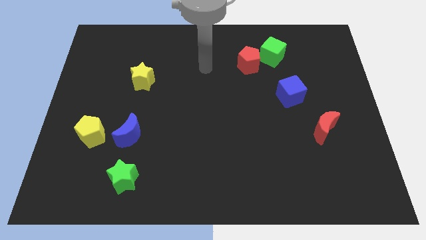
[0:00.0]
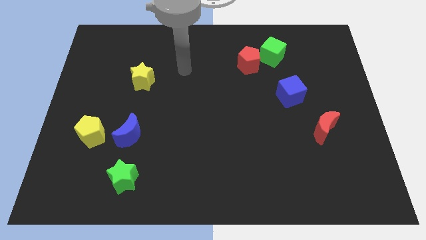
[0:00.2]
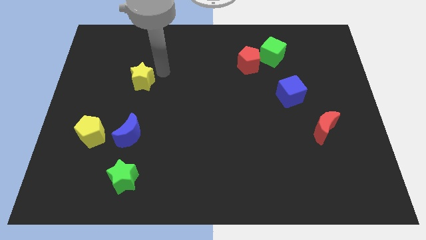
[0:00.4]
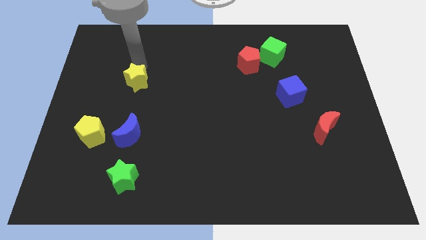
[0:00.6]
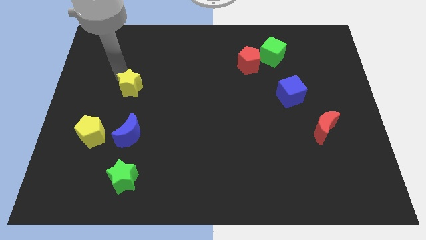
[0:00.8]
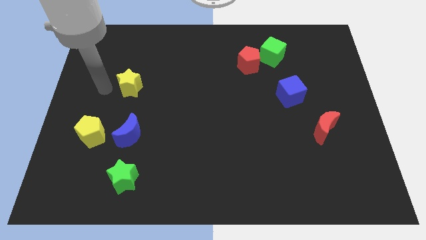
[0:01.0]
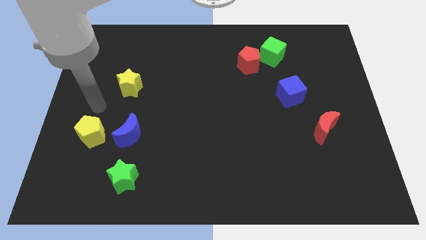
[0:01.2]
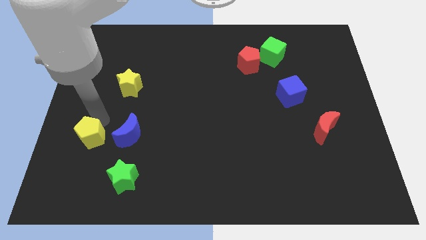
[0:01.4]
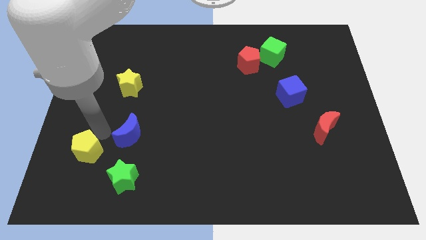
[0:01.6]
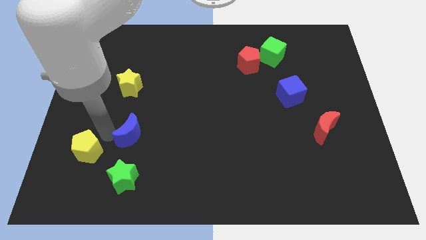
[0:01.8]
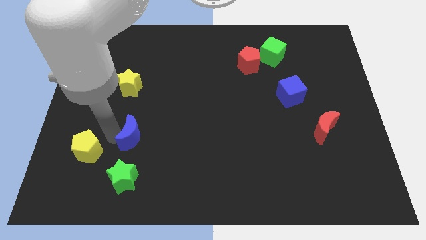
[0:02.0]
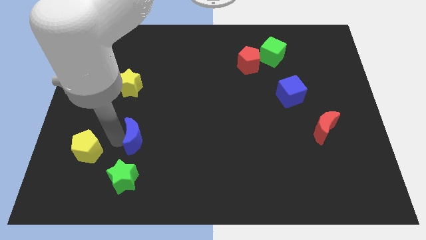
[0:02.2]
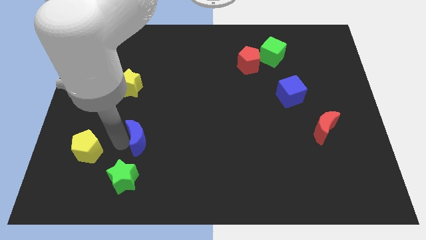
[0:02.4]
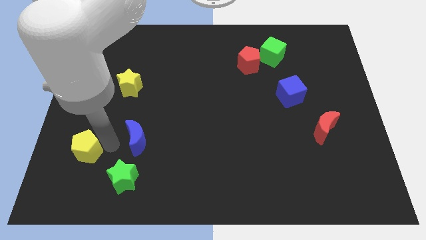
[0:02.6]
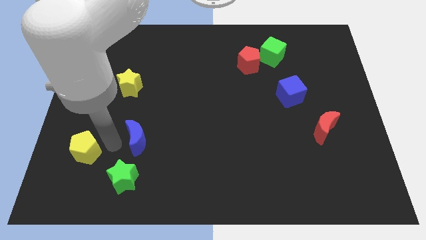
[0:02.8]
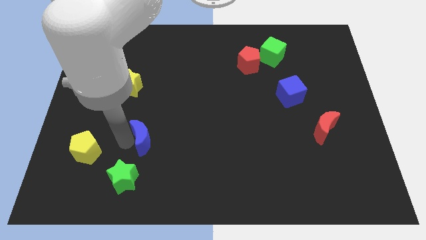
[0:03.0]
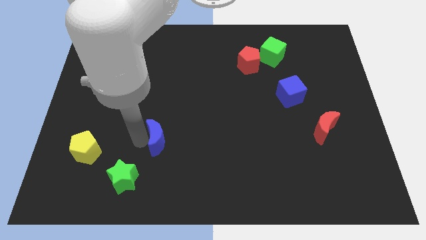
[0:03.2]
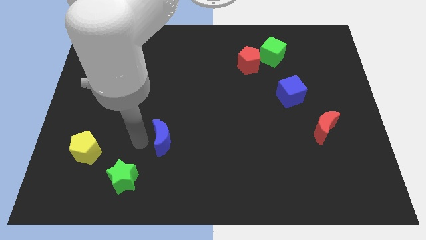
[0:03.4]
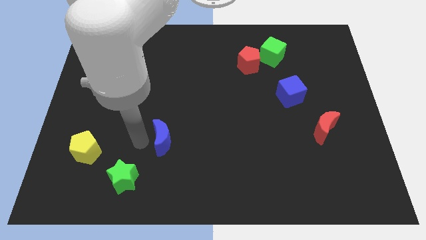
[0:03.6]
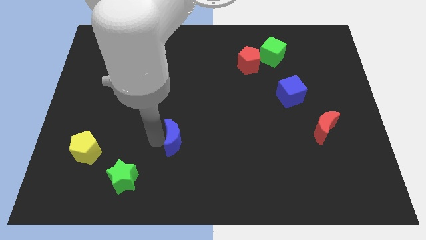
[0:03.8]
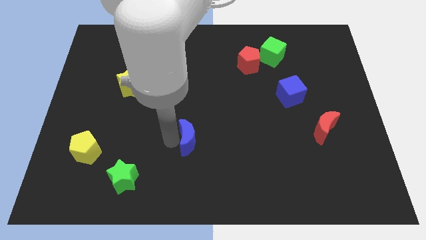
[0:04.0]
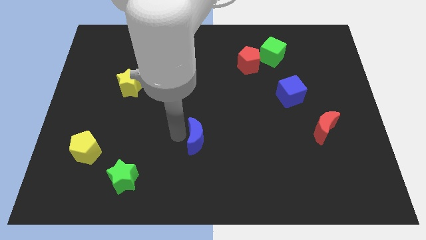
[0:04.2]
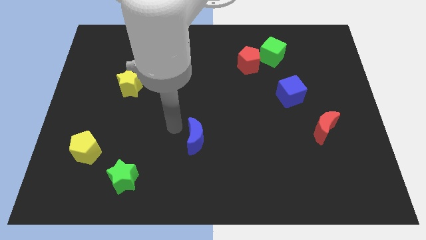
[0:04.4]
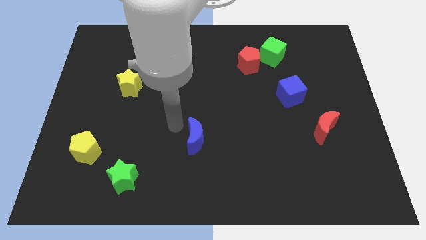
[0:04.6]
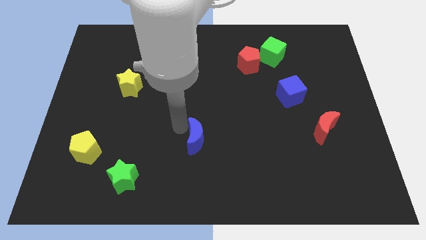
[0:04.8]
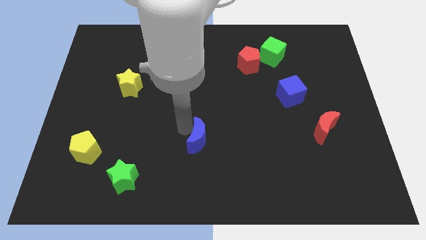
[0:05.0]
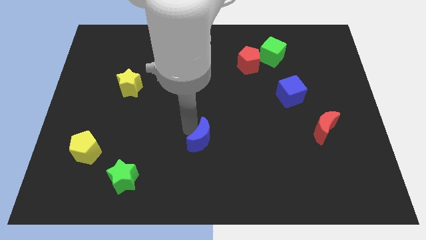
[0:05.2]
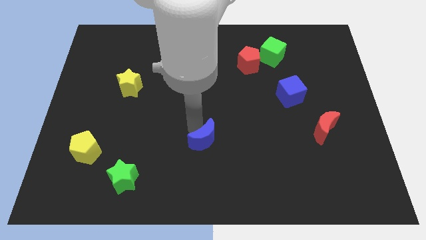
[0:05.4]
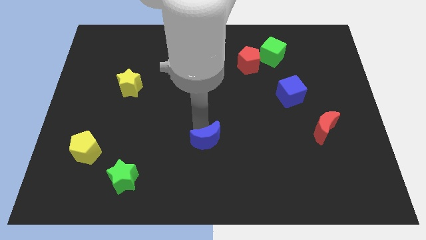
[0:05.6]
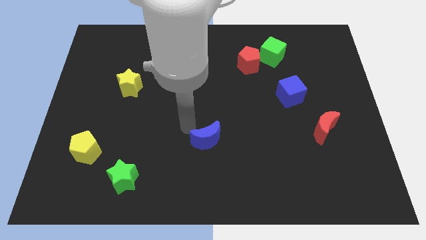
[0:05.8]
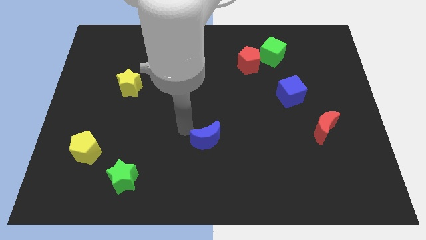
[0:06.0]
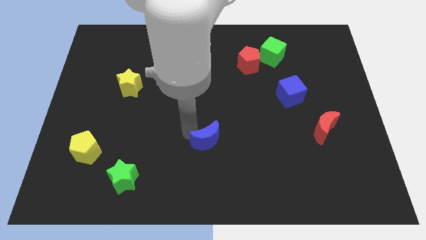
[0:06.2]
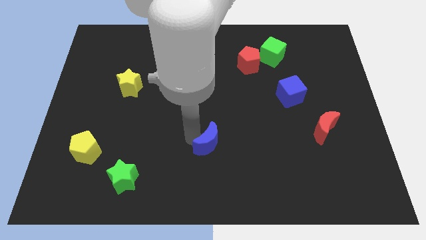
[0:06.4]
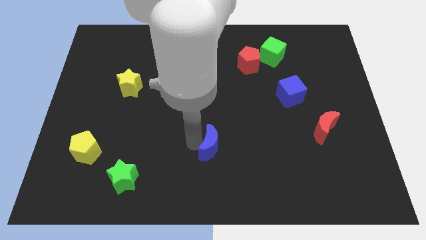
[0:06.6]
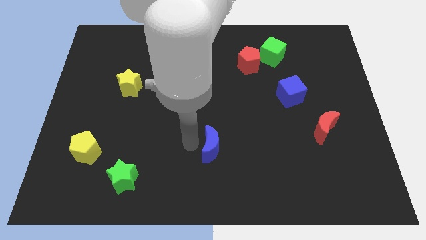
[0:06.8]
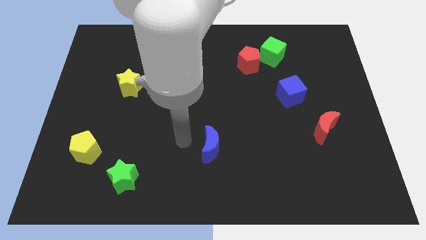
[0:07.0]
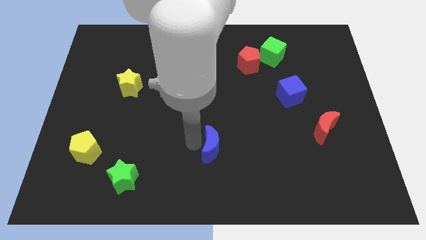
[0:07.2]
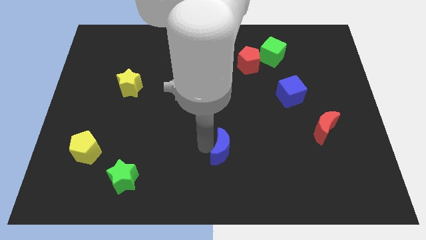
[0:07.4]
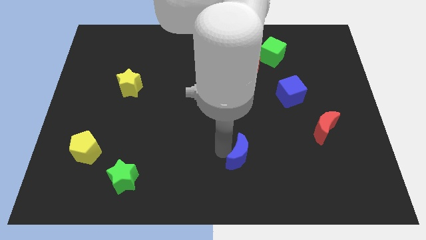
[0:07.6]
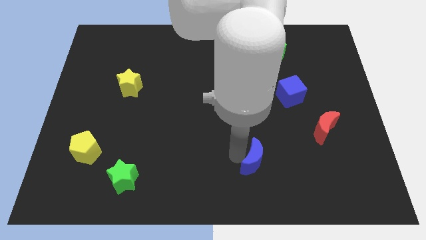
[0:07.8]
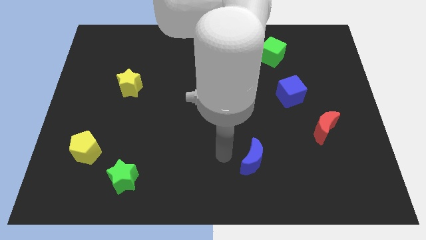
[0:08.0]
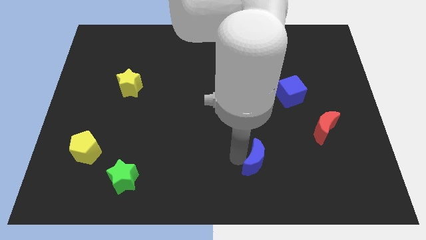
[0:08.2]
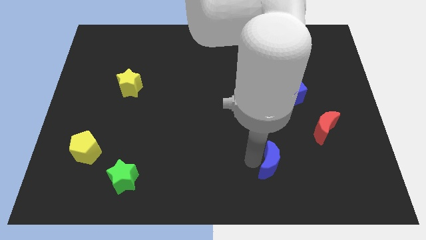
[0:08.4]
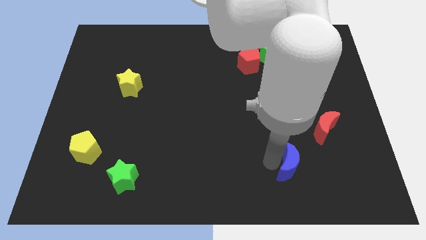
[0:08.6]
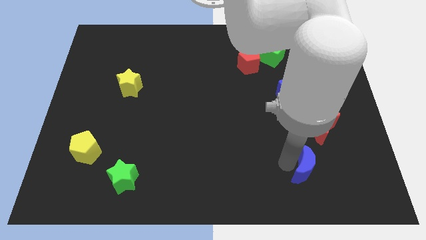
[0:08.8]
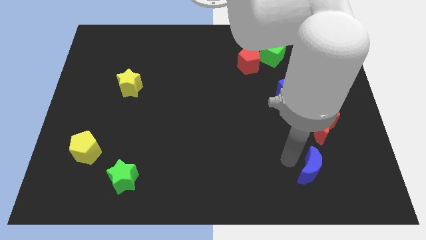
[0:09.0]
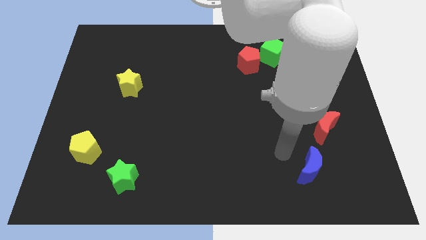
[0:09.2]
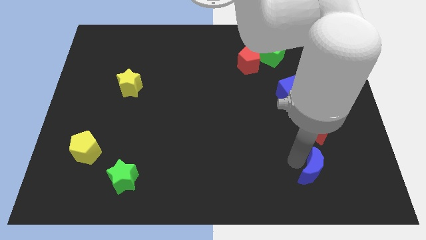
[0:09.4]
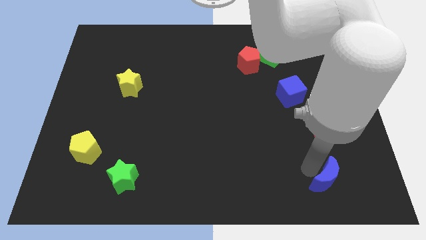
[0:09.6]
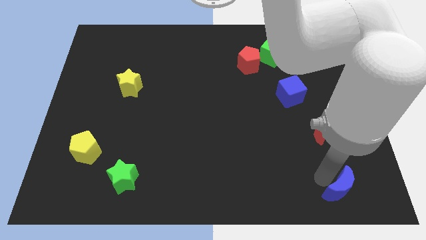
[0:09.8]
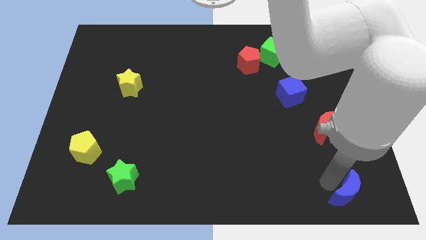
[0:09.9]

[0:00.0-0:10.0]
slide the blue moon to the lower right corner

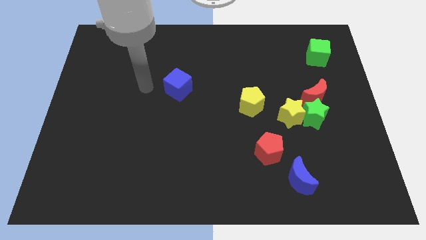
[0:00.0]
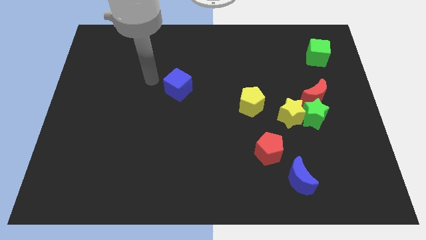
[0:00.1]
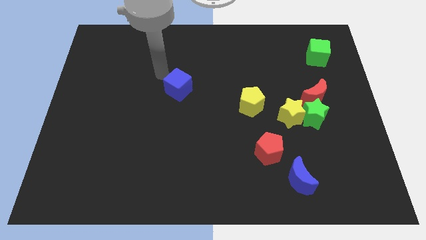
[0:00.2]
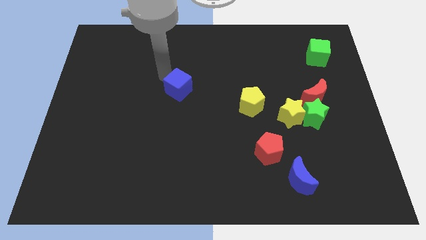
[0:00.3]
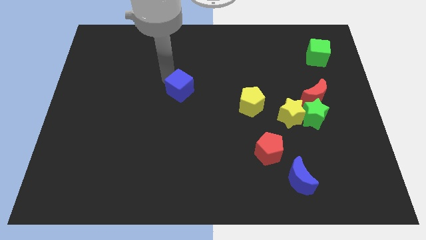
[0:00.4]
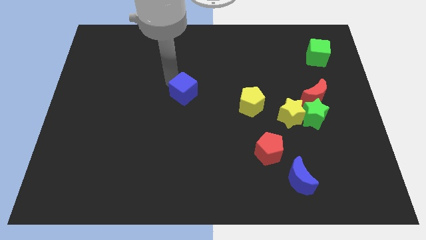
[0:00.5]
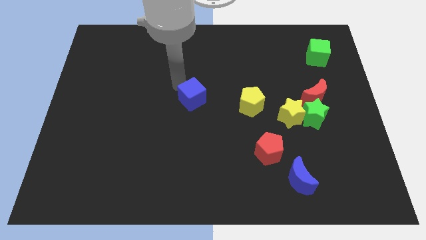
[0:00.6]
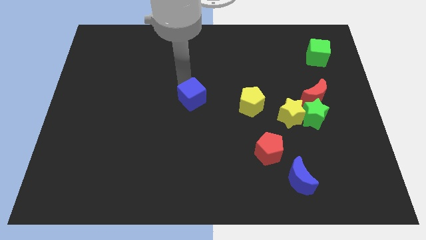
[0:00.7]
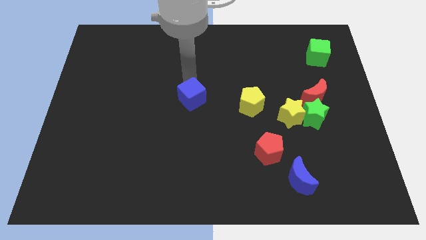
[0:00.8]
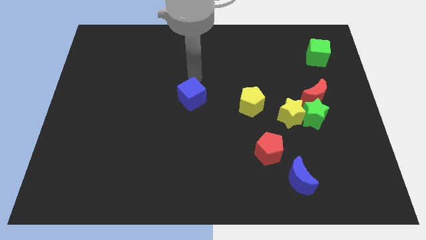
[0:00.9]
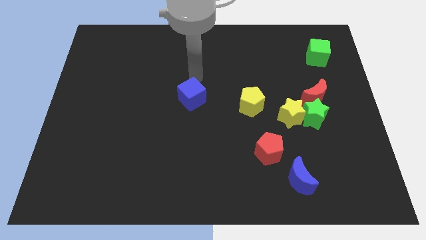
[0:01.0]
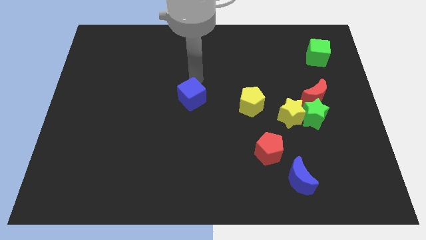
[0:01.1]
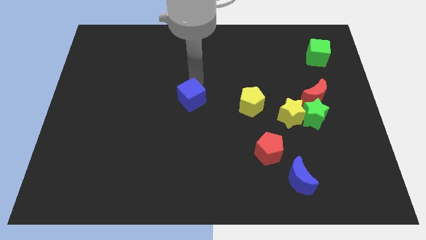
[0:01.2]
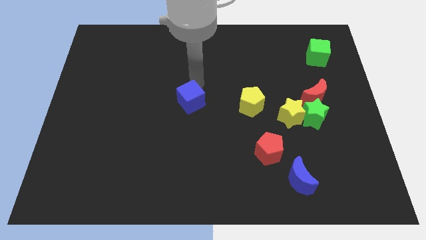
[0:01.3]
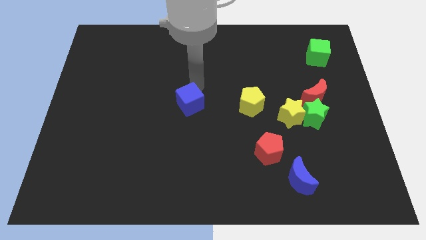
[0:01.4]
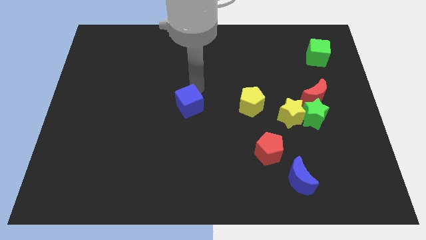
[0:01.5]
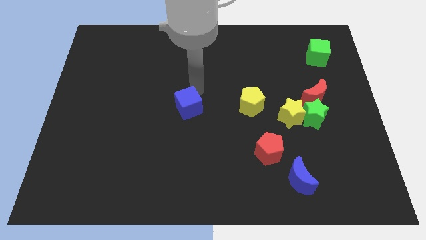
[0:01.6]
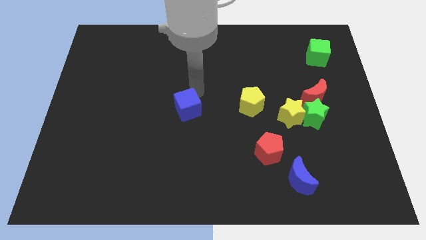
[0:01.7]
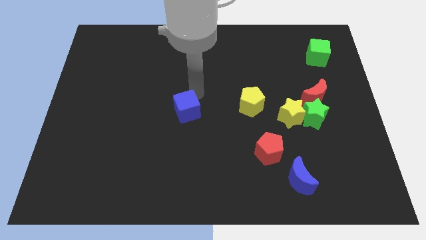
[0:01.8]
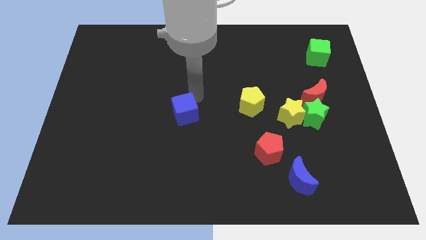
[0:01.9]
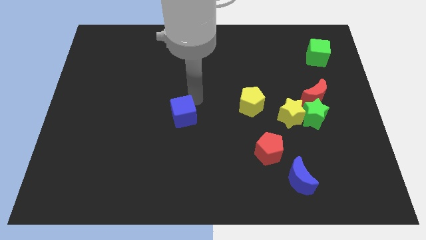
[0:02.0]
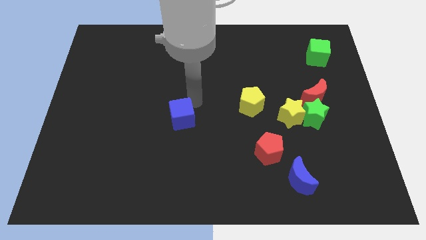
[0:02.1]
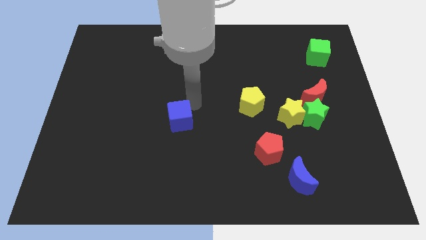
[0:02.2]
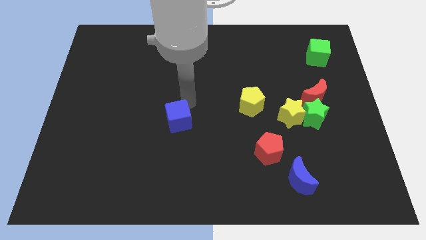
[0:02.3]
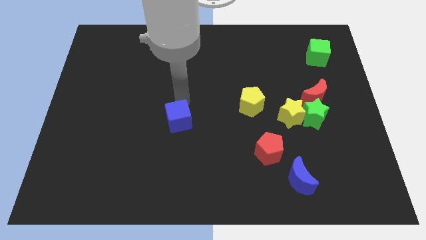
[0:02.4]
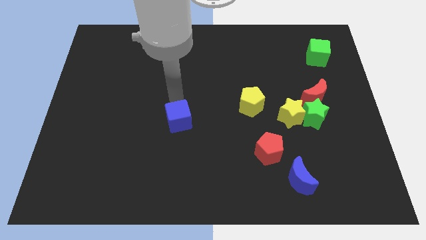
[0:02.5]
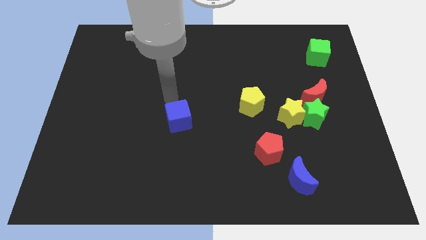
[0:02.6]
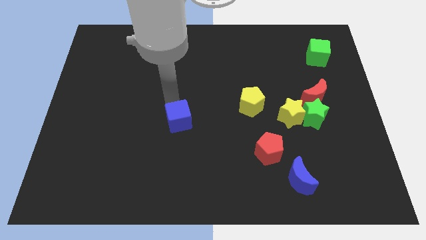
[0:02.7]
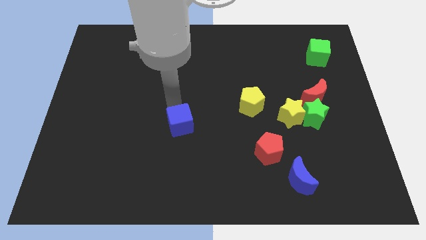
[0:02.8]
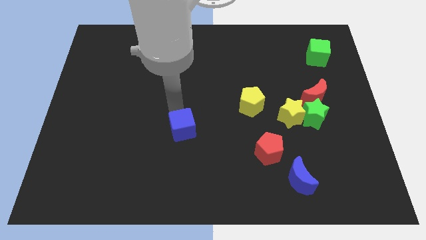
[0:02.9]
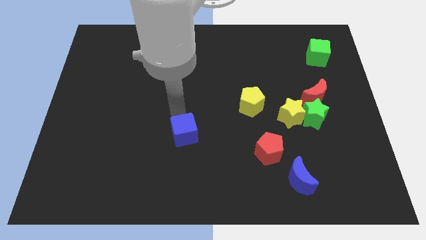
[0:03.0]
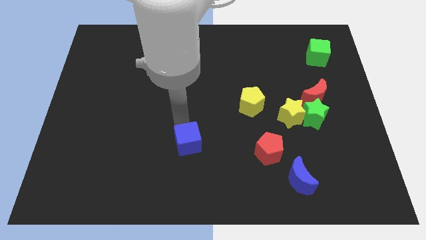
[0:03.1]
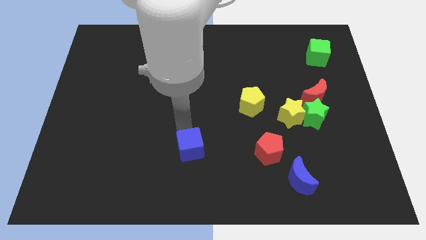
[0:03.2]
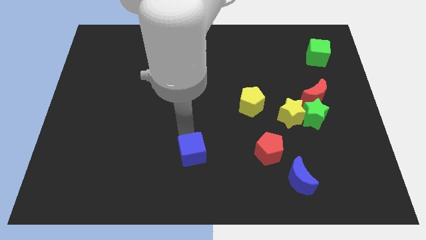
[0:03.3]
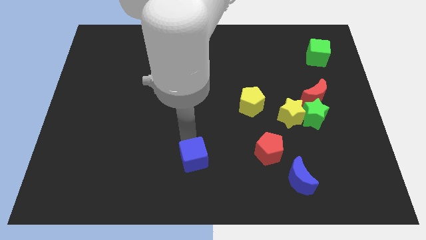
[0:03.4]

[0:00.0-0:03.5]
put the blue cube to the bottom
